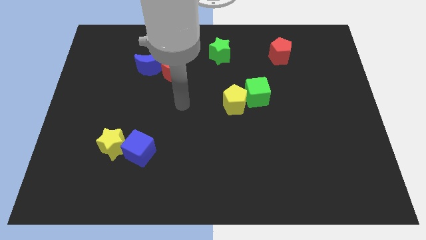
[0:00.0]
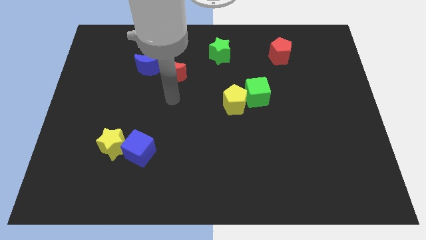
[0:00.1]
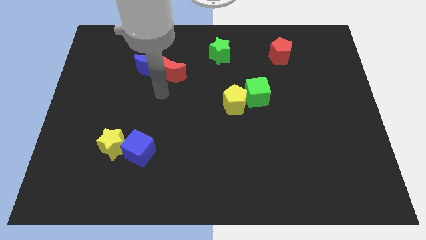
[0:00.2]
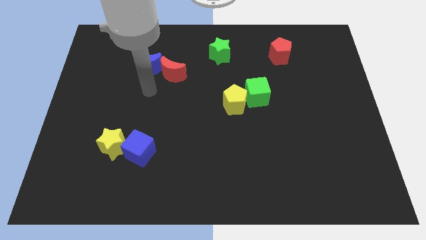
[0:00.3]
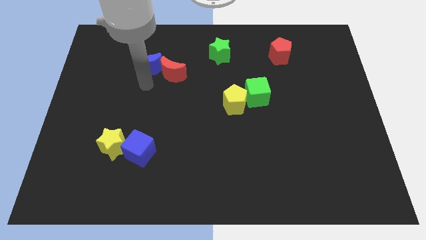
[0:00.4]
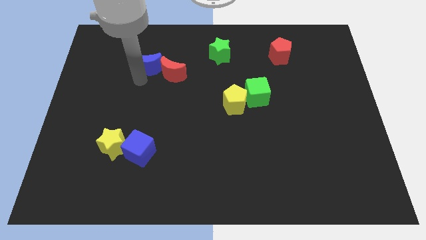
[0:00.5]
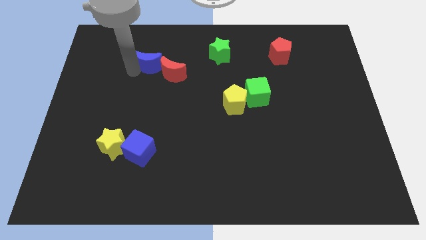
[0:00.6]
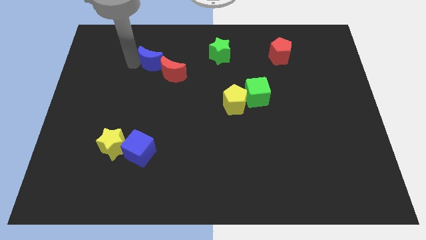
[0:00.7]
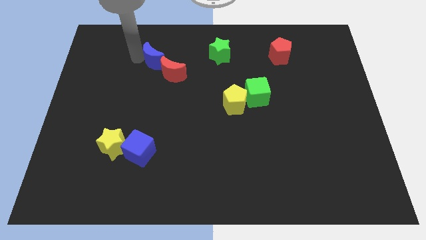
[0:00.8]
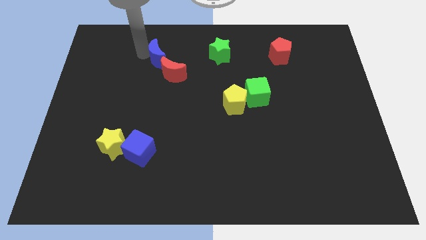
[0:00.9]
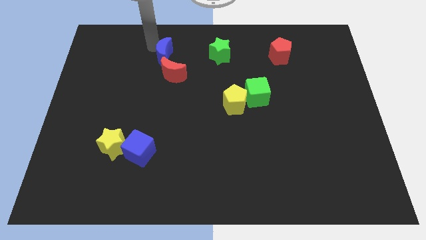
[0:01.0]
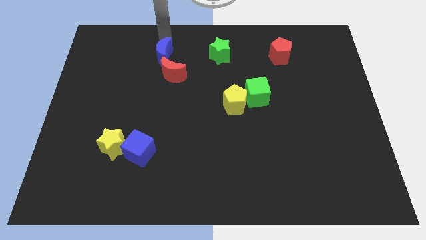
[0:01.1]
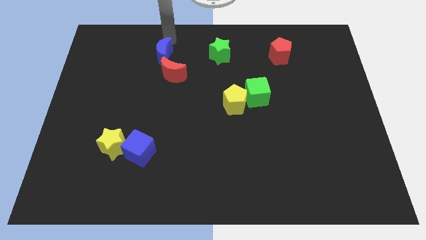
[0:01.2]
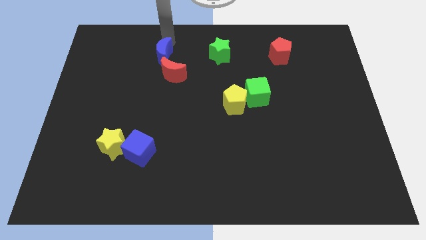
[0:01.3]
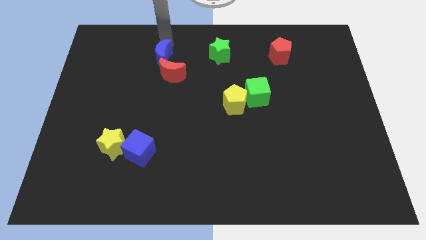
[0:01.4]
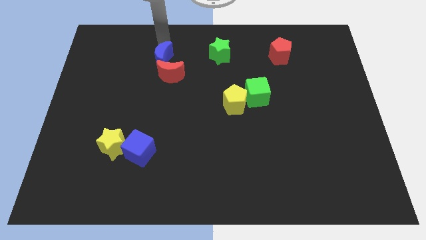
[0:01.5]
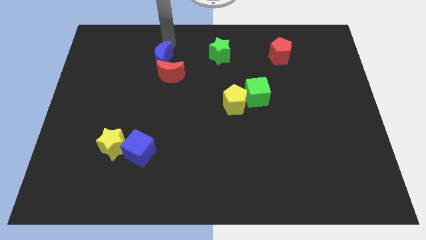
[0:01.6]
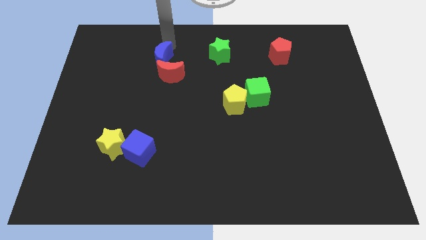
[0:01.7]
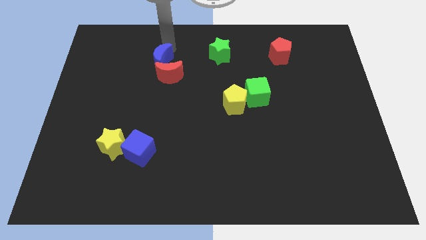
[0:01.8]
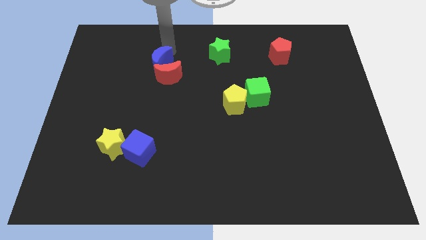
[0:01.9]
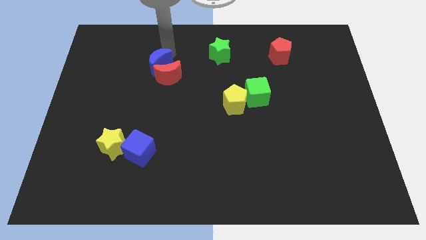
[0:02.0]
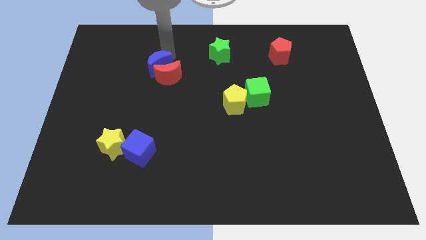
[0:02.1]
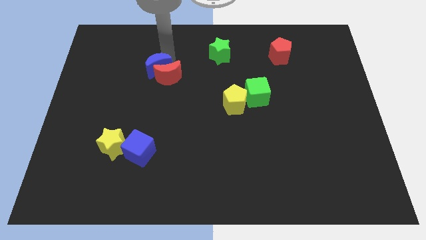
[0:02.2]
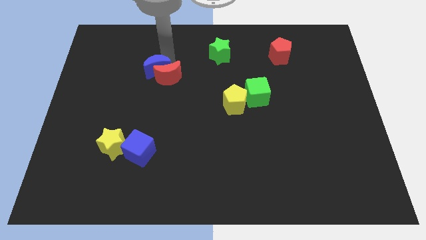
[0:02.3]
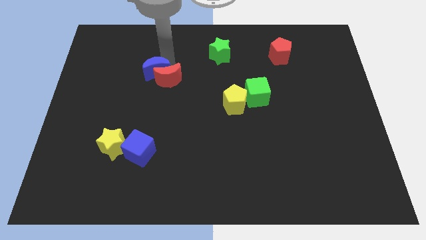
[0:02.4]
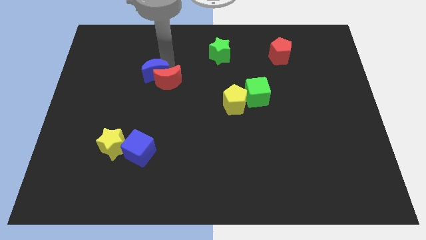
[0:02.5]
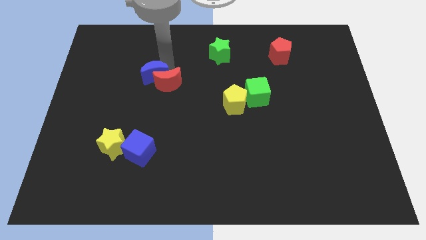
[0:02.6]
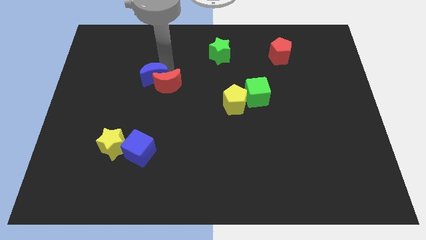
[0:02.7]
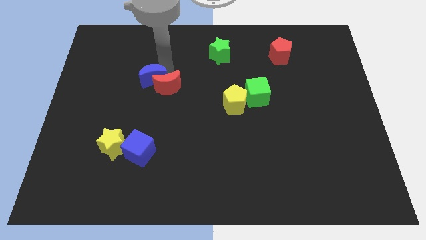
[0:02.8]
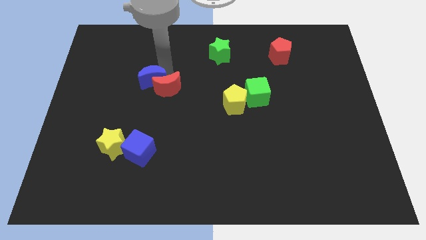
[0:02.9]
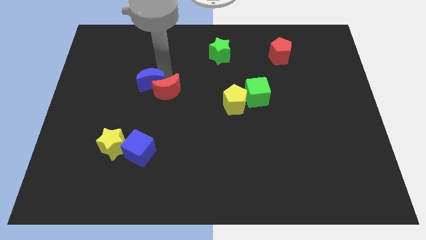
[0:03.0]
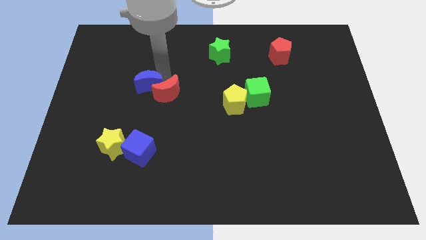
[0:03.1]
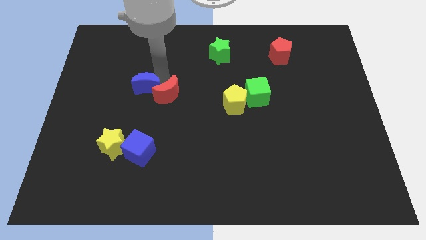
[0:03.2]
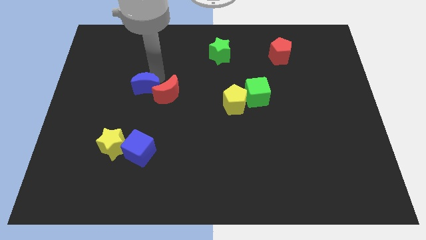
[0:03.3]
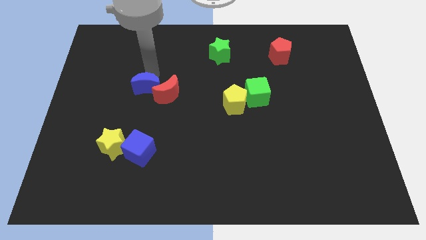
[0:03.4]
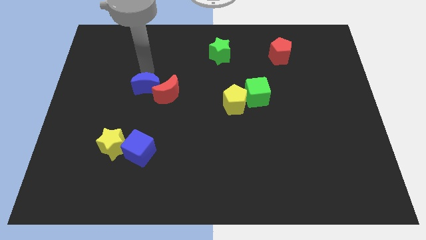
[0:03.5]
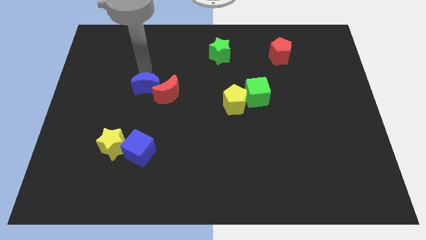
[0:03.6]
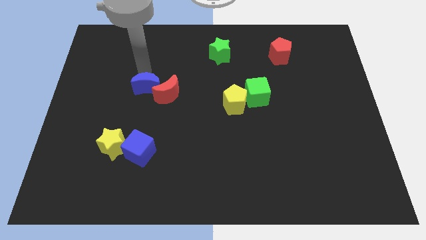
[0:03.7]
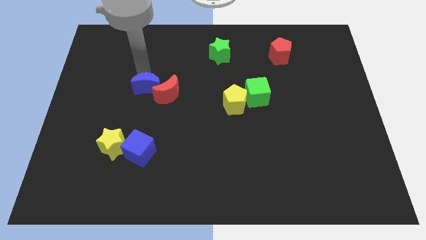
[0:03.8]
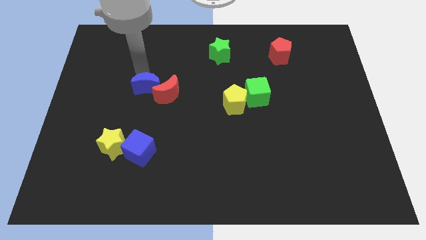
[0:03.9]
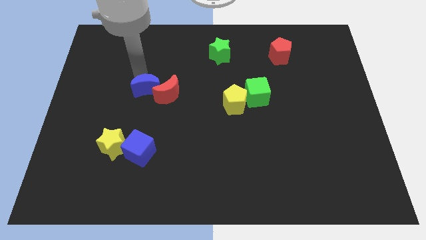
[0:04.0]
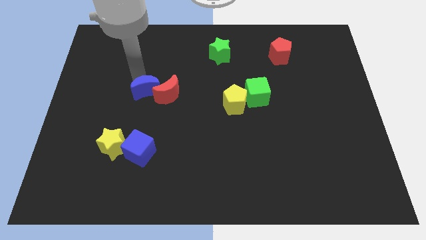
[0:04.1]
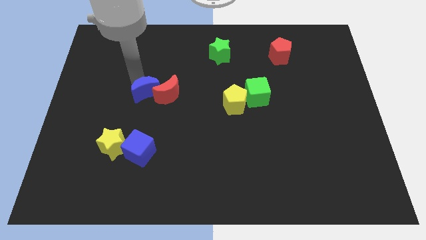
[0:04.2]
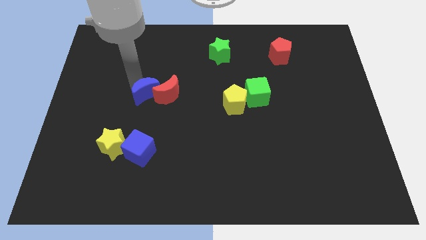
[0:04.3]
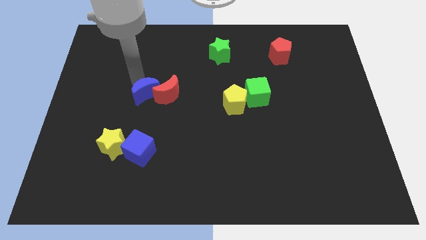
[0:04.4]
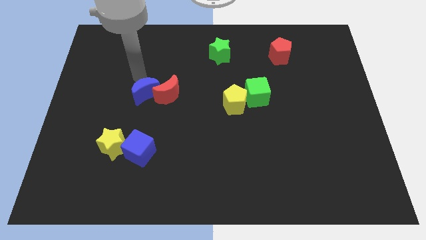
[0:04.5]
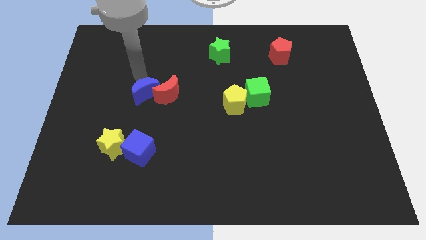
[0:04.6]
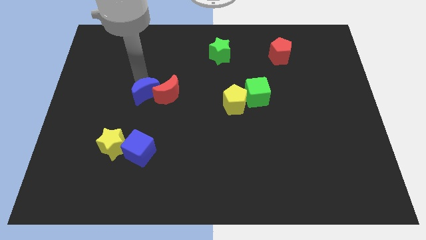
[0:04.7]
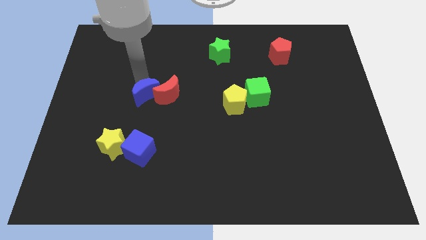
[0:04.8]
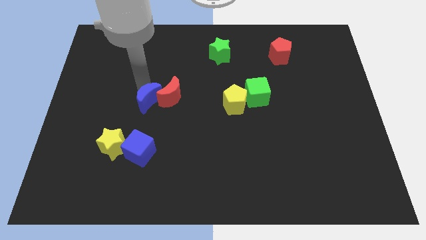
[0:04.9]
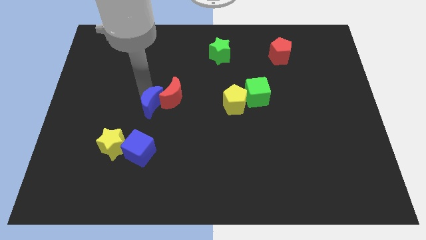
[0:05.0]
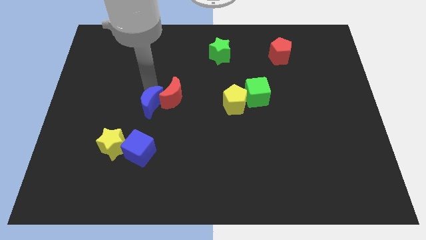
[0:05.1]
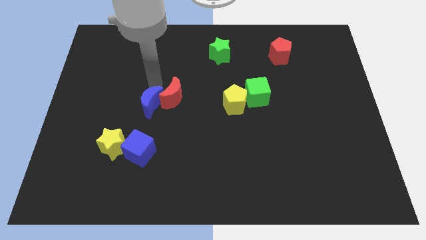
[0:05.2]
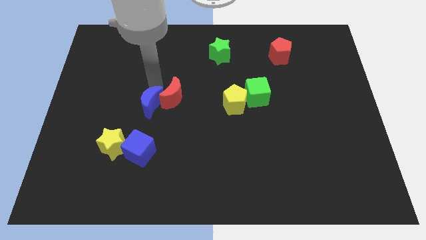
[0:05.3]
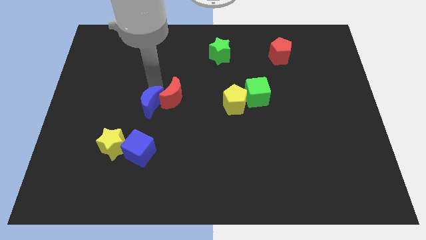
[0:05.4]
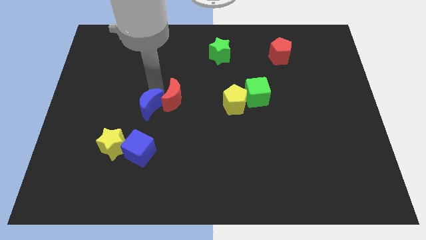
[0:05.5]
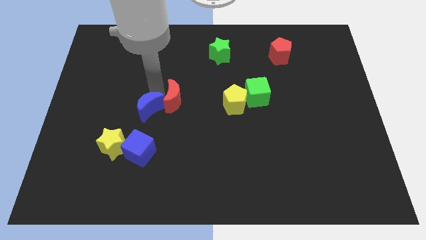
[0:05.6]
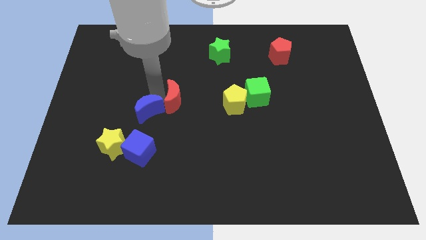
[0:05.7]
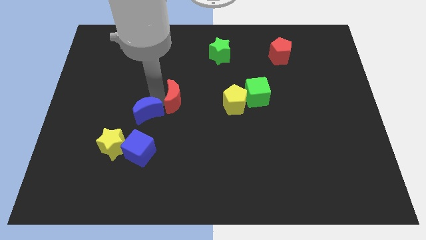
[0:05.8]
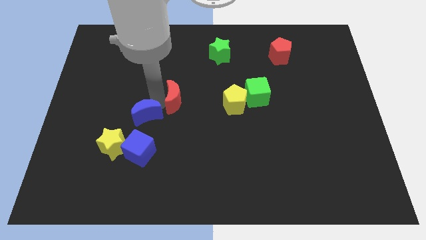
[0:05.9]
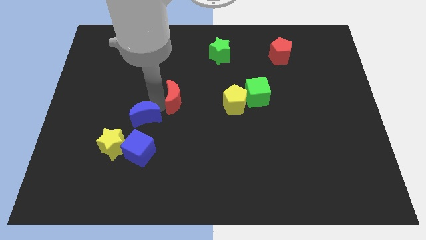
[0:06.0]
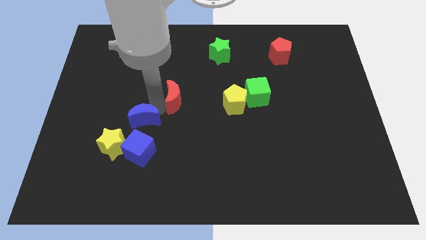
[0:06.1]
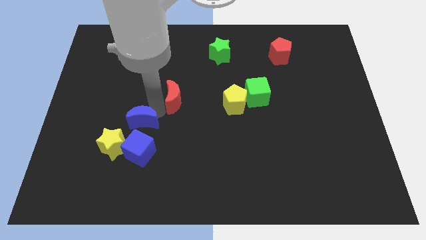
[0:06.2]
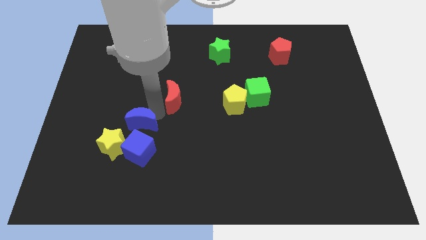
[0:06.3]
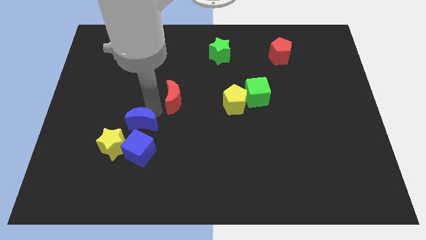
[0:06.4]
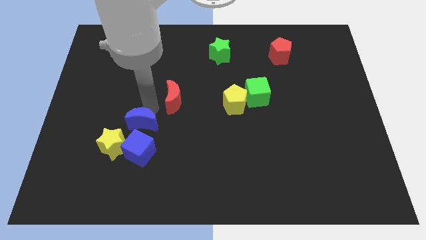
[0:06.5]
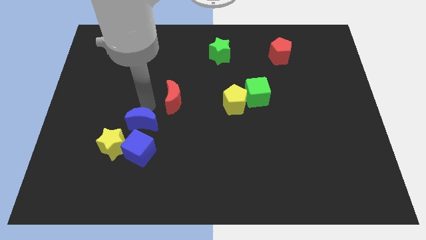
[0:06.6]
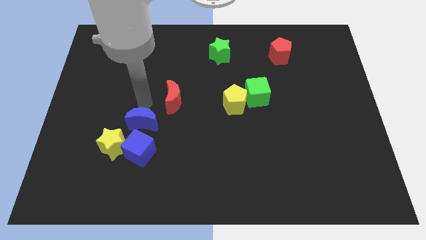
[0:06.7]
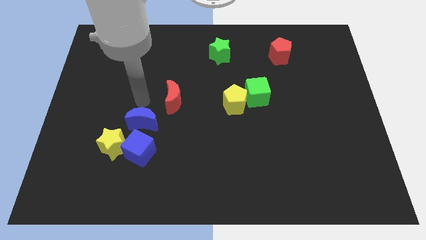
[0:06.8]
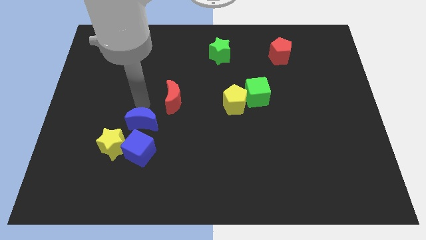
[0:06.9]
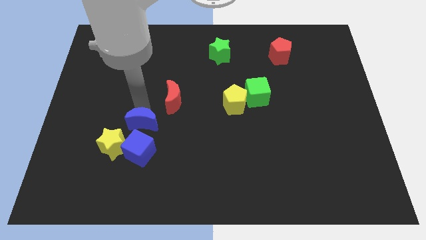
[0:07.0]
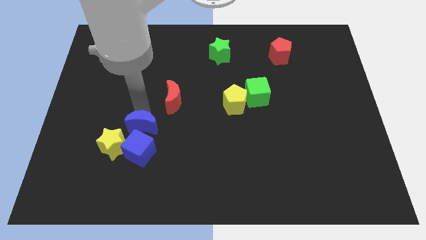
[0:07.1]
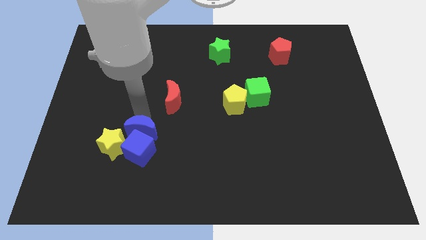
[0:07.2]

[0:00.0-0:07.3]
put the blue moon close to the blue cube
